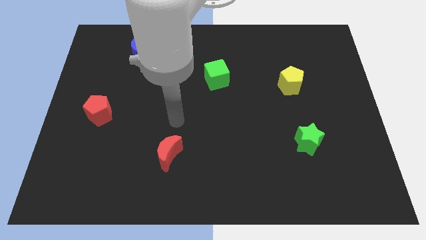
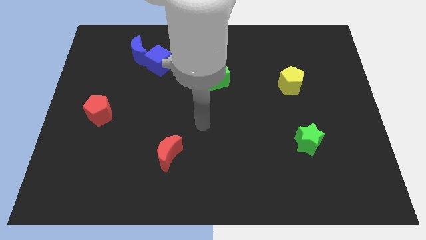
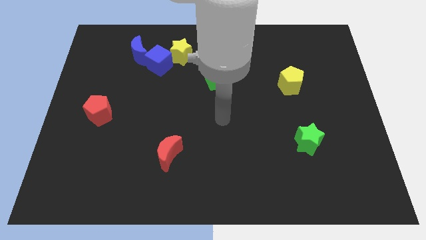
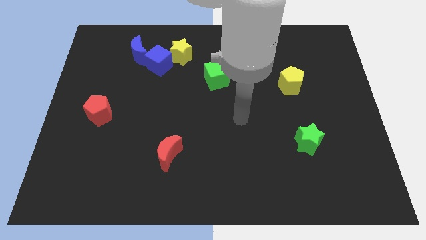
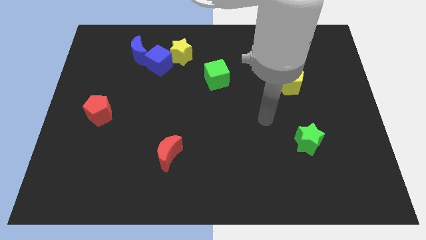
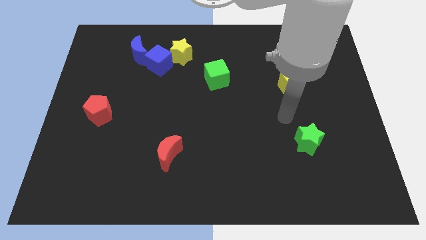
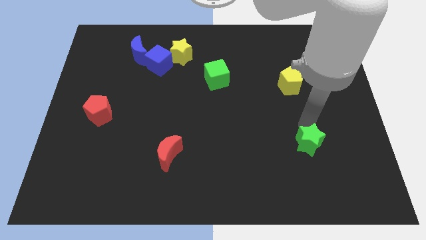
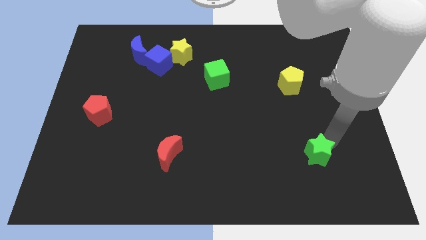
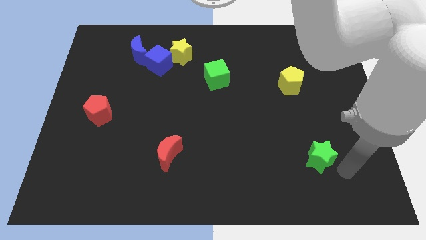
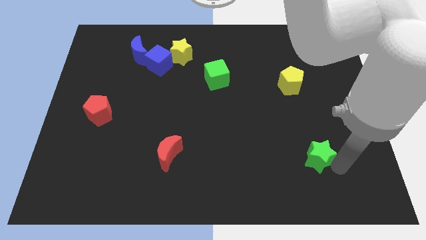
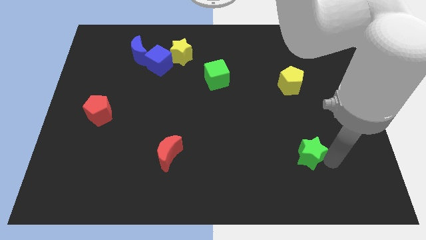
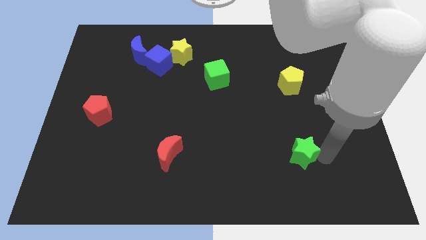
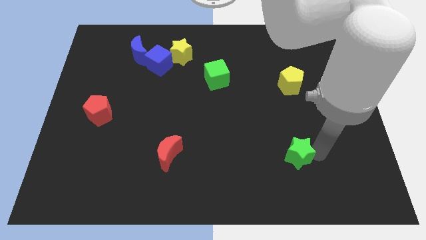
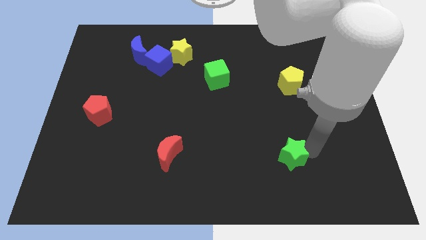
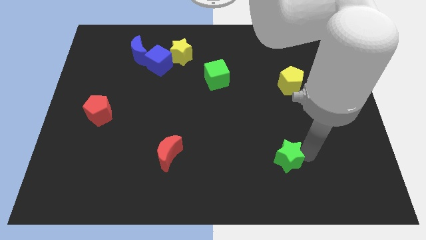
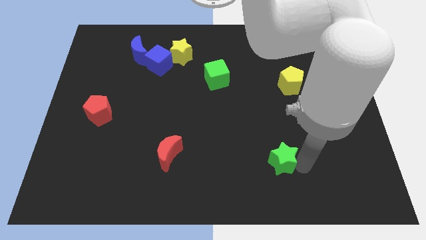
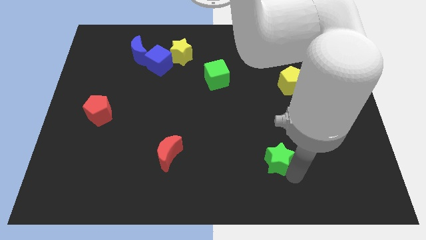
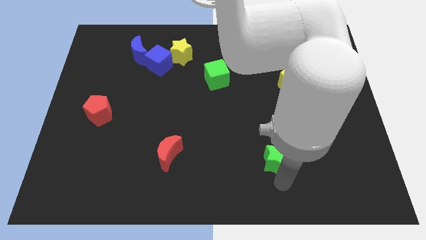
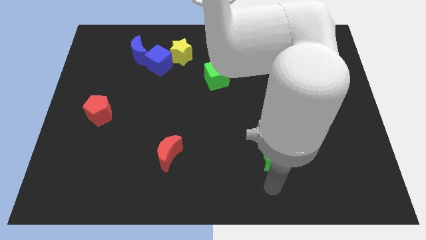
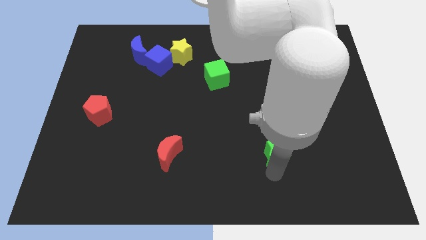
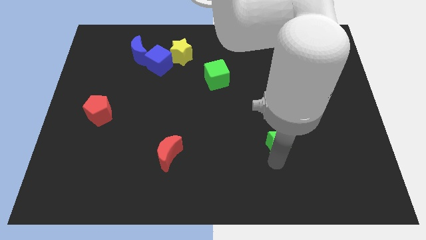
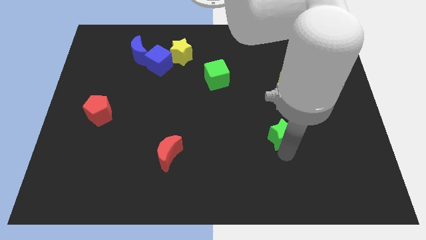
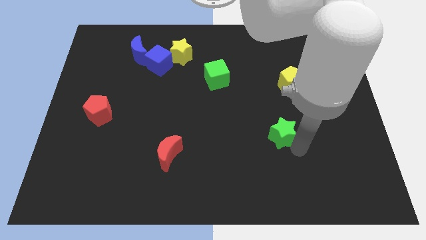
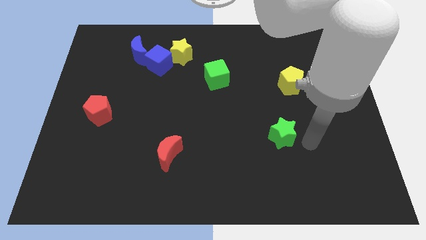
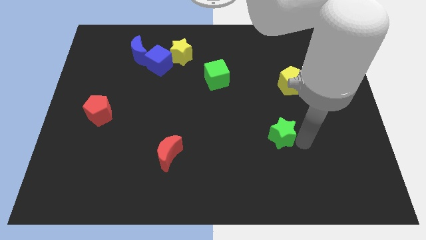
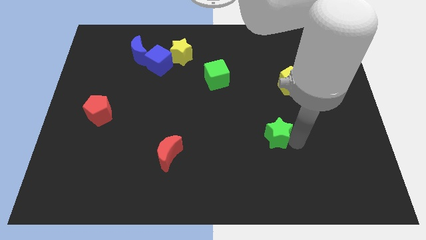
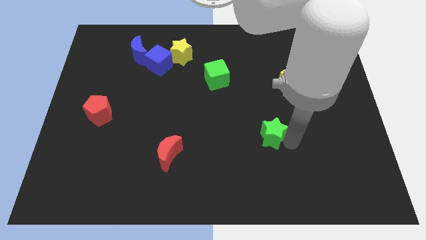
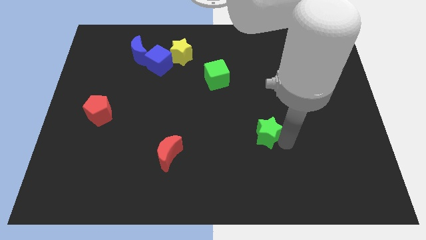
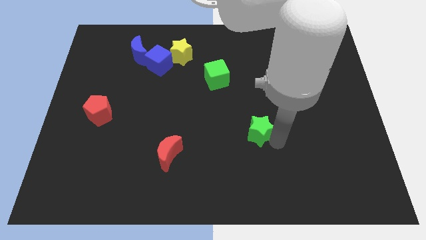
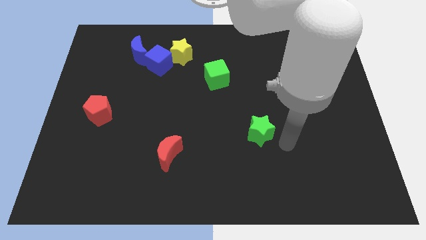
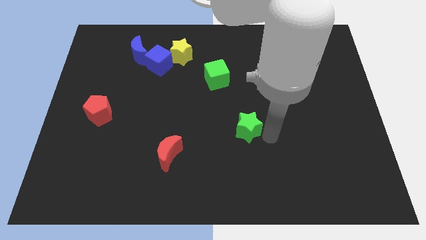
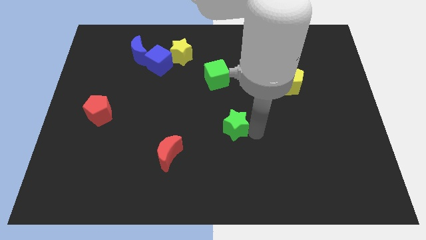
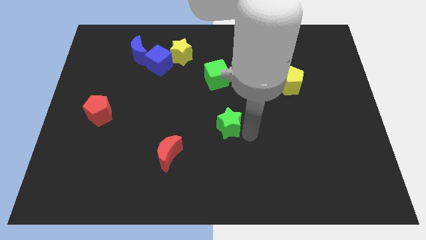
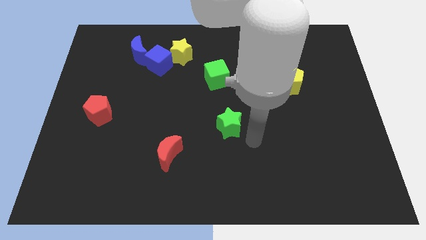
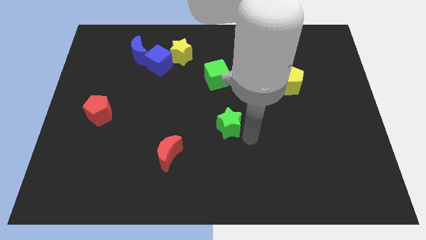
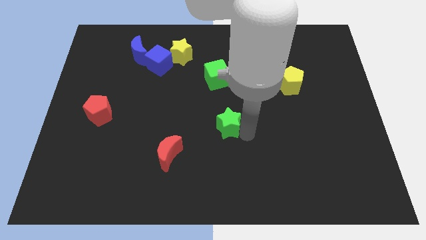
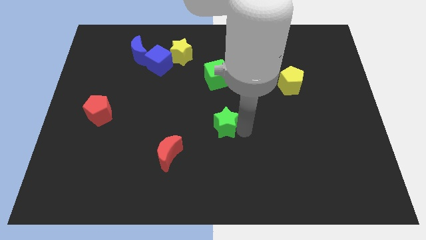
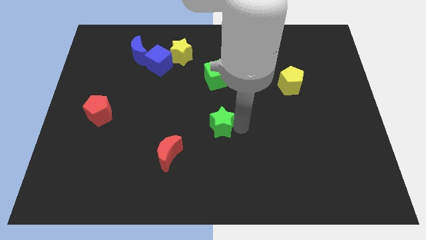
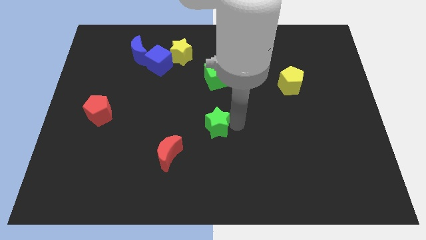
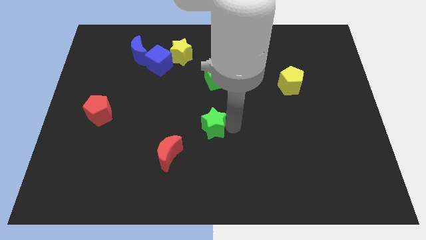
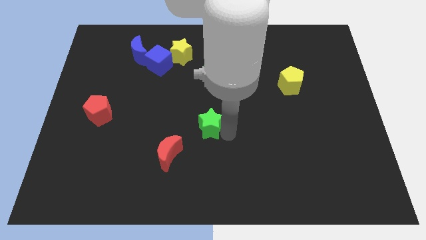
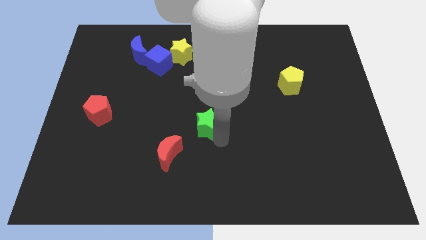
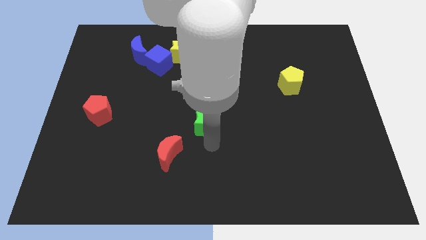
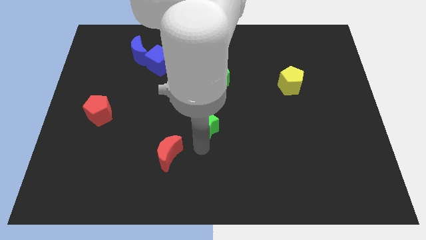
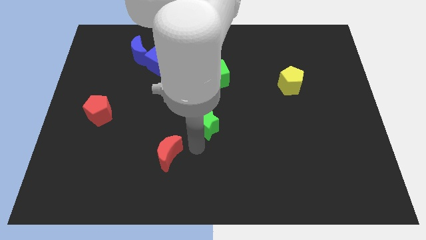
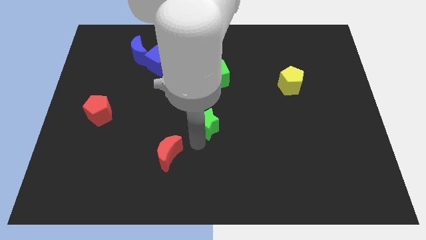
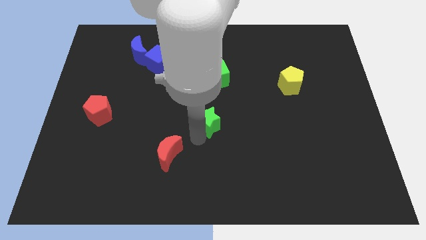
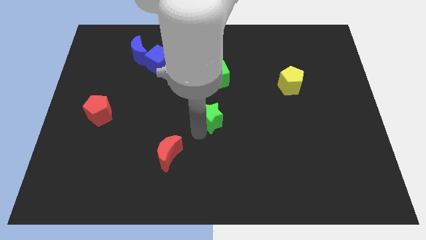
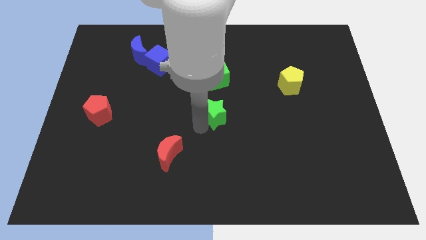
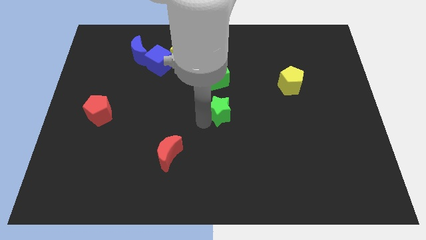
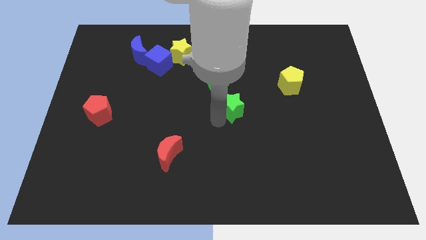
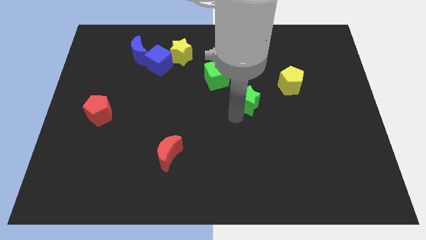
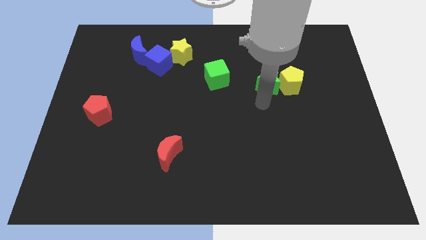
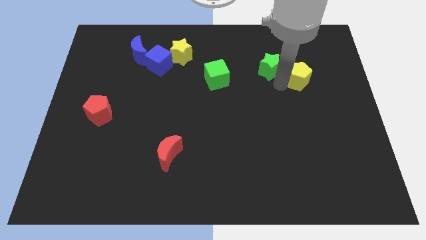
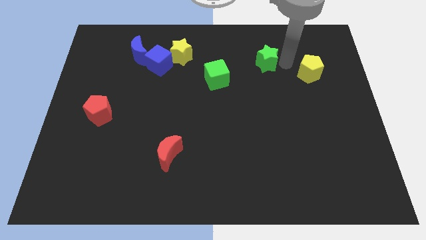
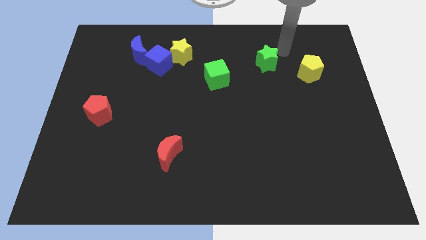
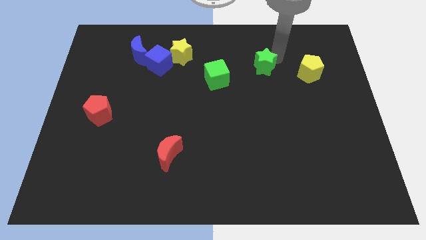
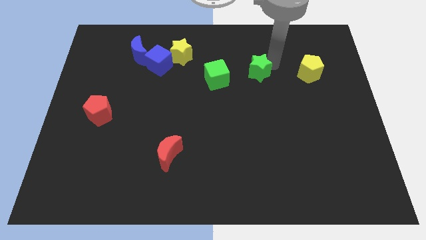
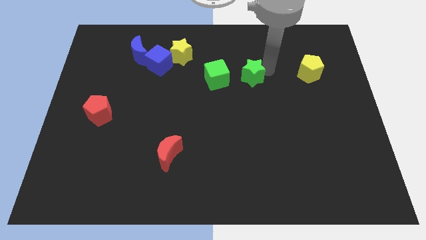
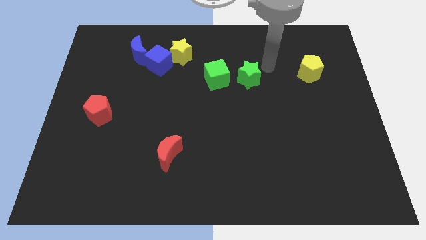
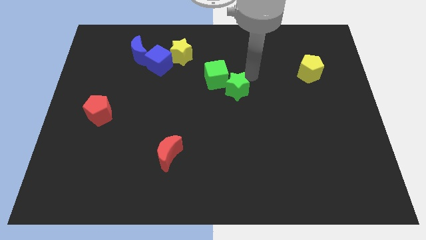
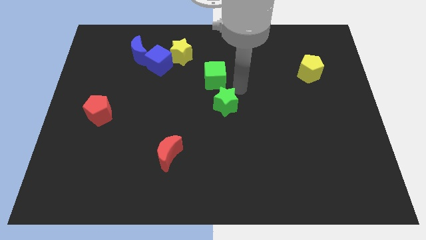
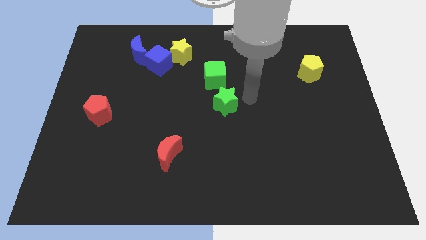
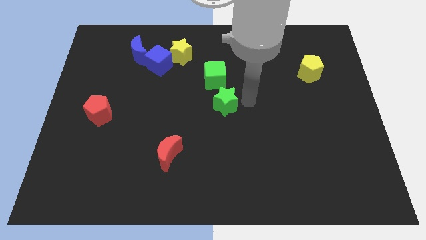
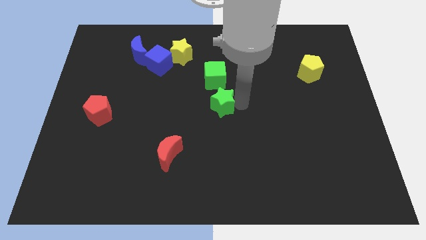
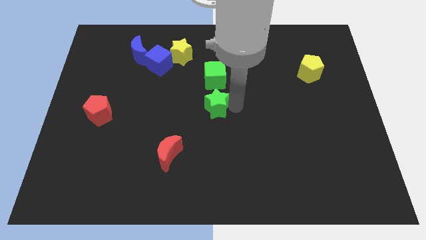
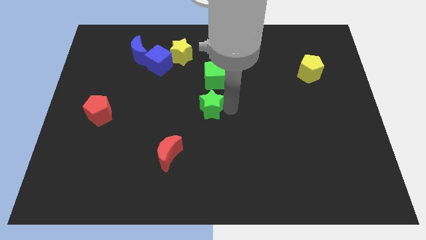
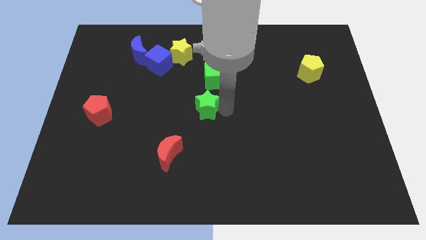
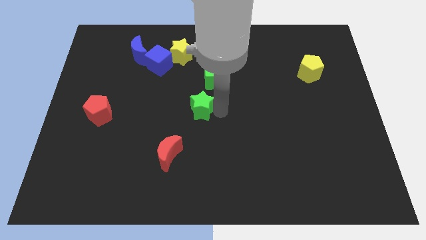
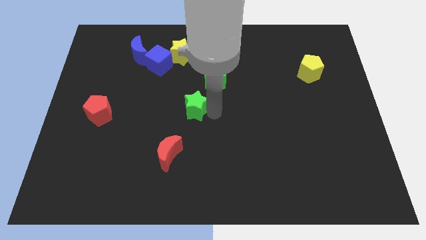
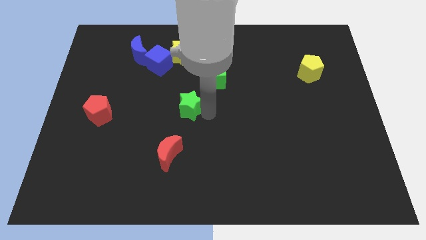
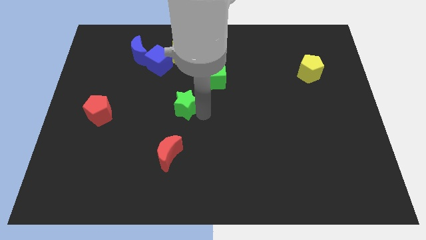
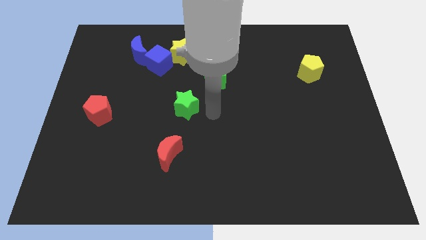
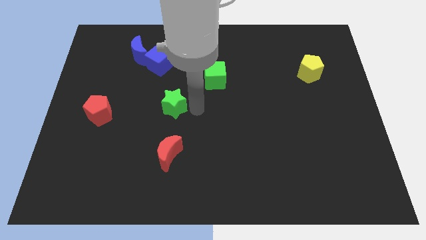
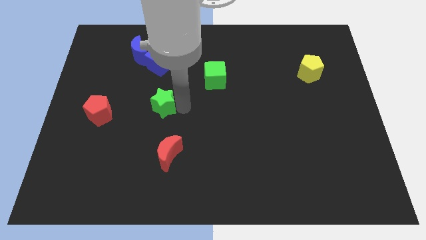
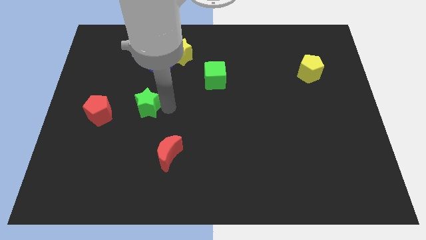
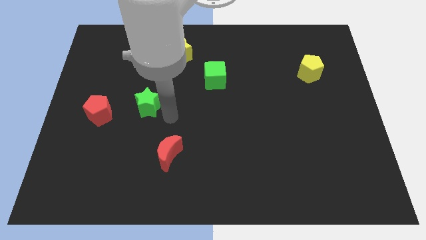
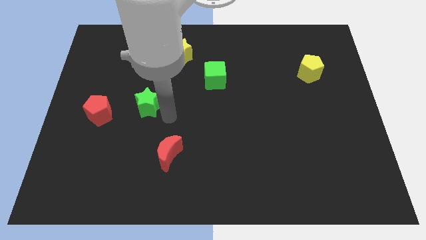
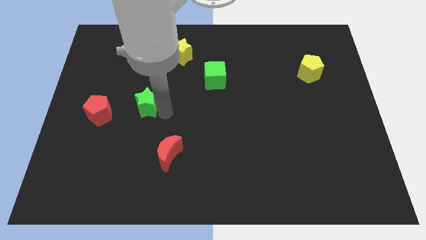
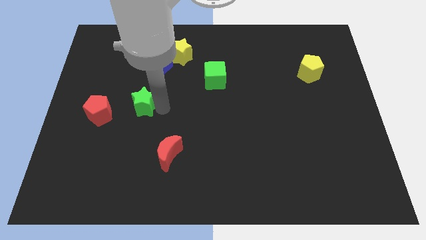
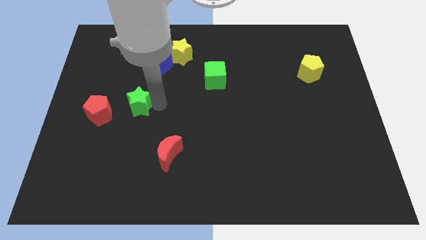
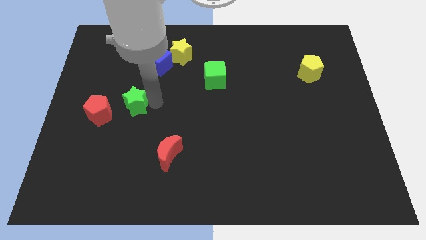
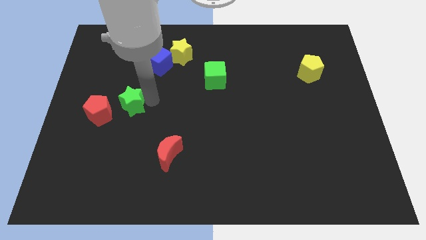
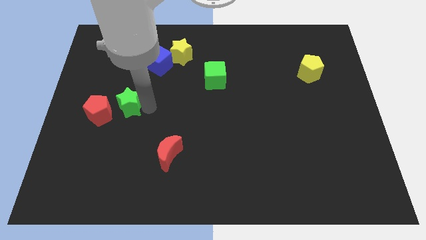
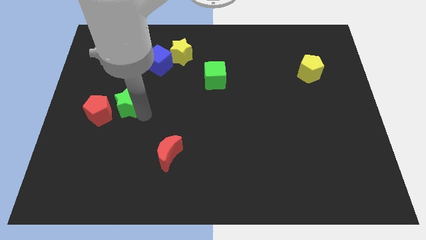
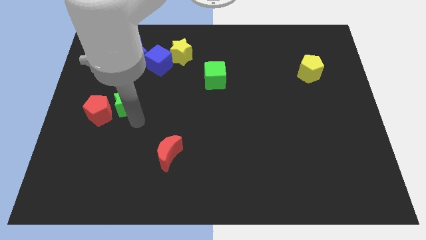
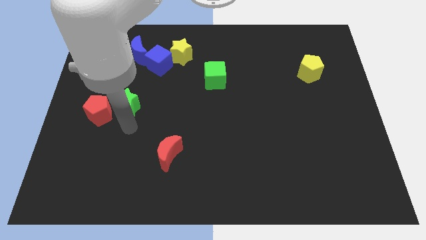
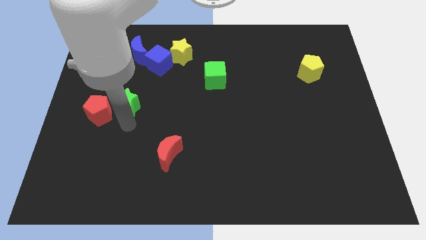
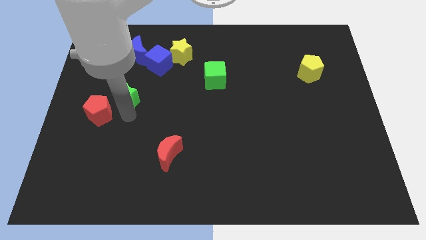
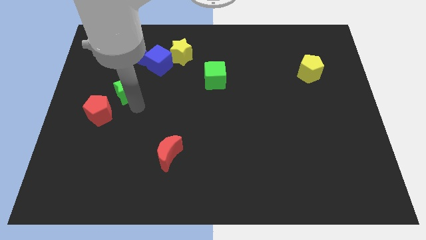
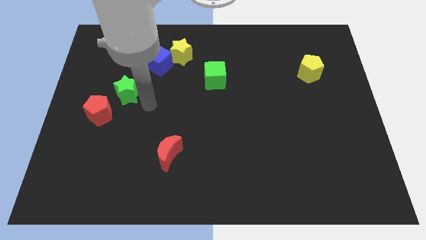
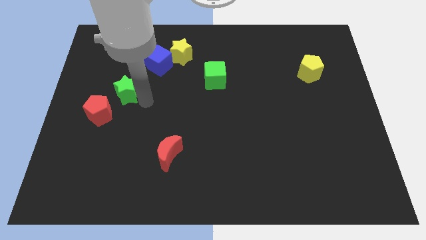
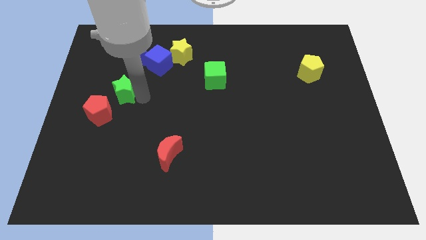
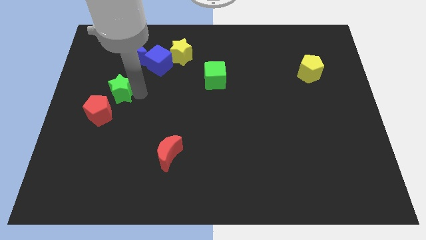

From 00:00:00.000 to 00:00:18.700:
slide the green star above the red pentagon
